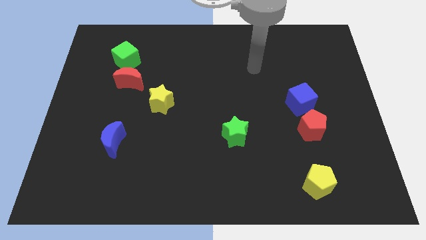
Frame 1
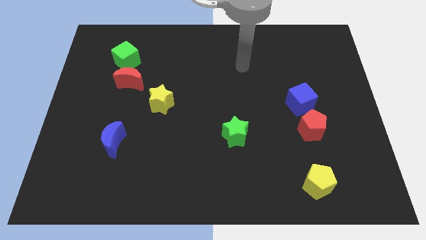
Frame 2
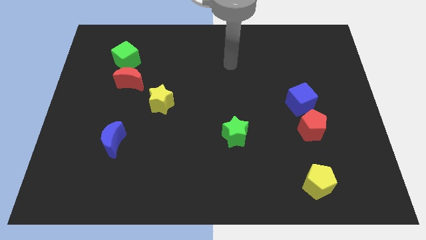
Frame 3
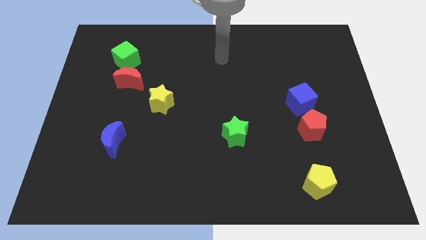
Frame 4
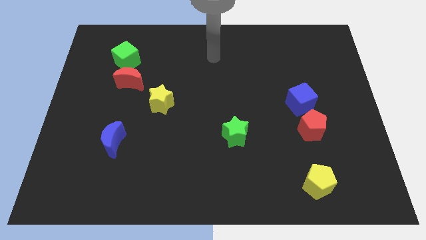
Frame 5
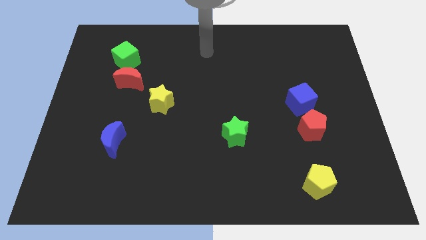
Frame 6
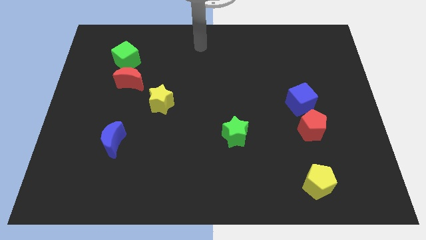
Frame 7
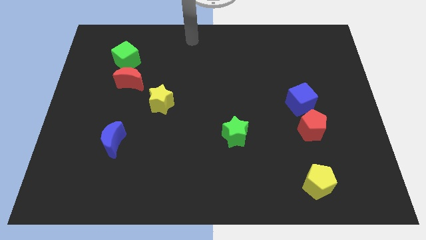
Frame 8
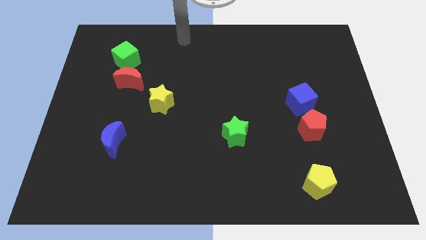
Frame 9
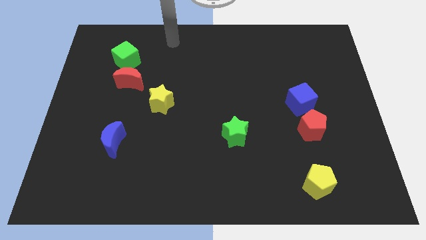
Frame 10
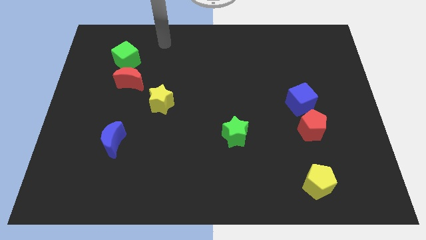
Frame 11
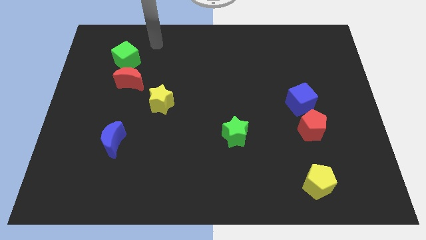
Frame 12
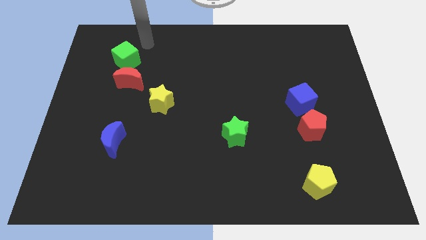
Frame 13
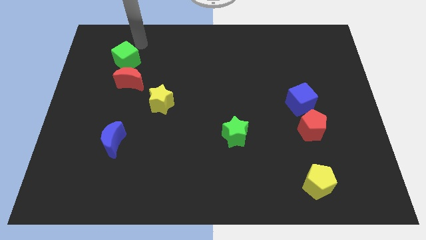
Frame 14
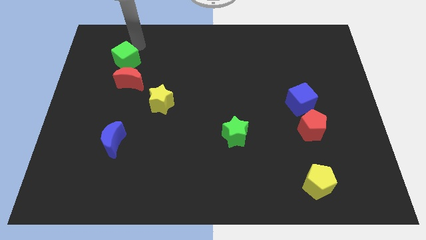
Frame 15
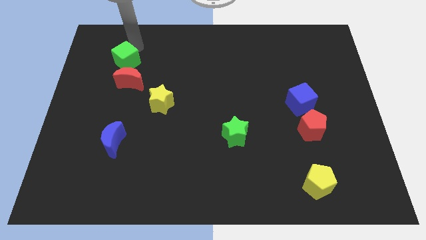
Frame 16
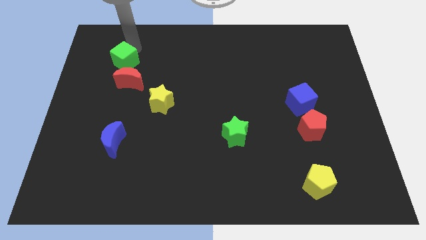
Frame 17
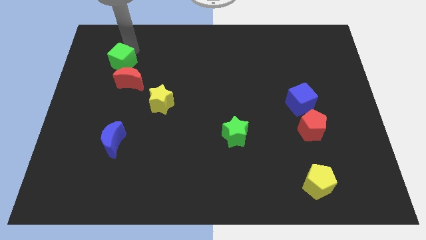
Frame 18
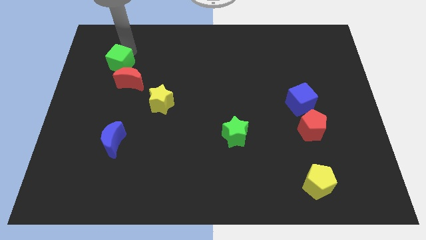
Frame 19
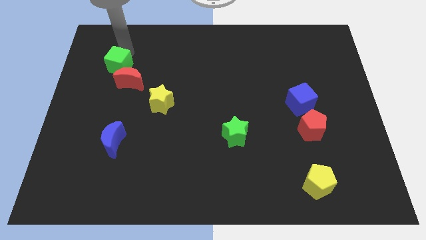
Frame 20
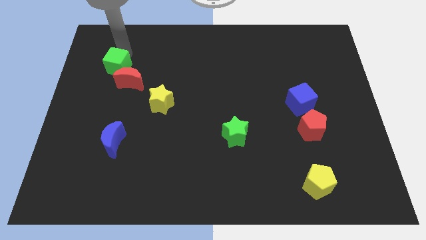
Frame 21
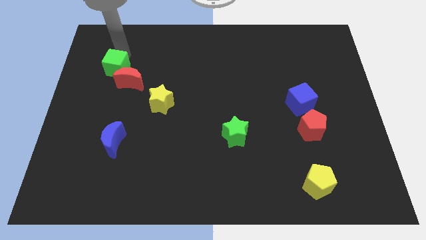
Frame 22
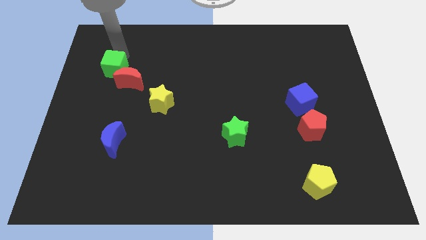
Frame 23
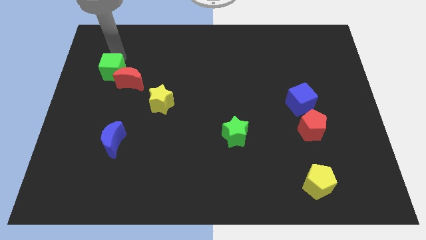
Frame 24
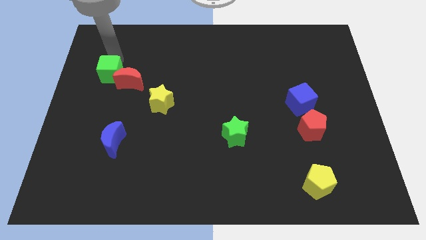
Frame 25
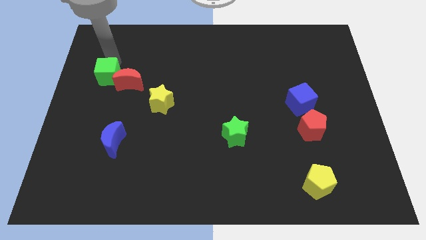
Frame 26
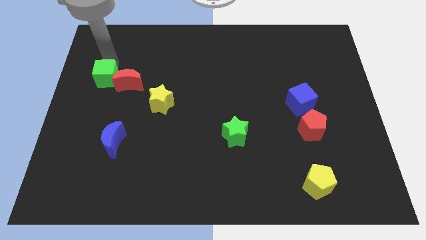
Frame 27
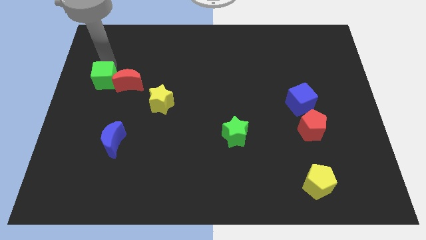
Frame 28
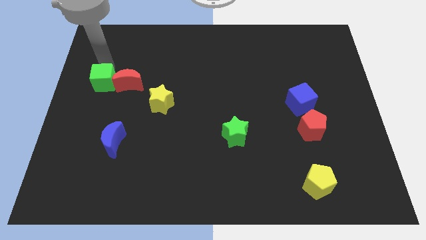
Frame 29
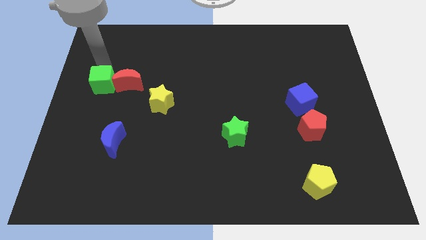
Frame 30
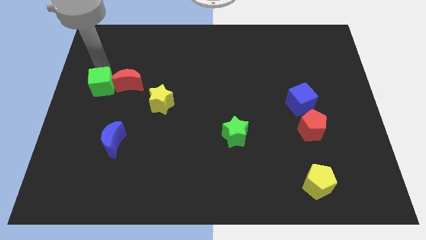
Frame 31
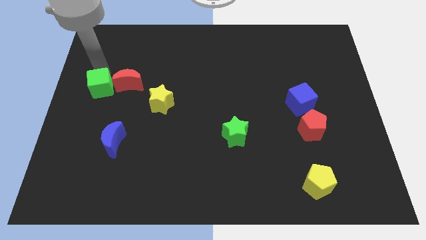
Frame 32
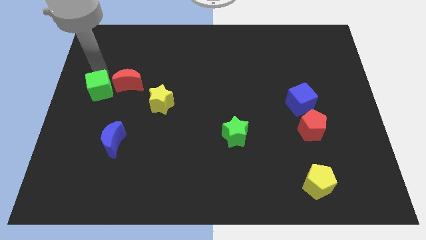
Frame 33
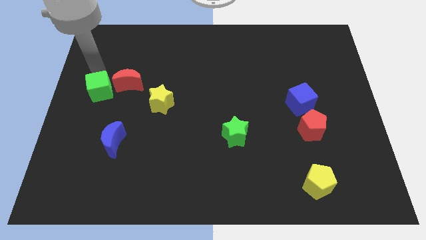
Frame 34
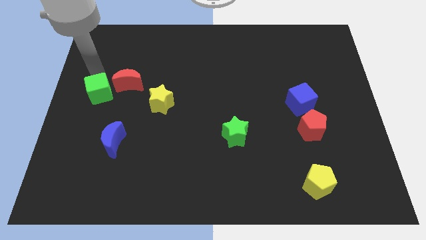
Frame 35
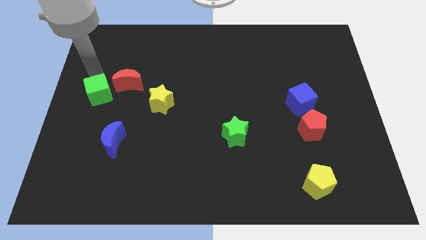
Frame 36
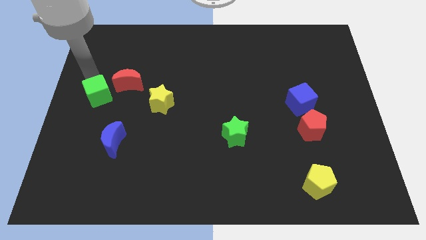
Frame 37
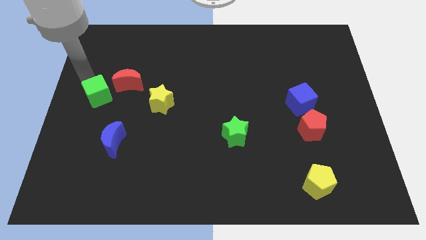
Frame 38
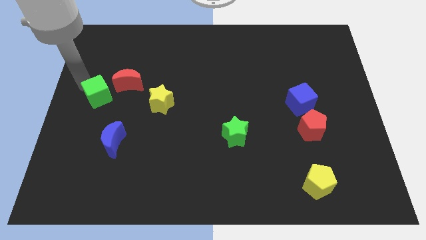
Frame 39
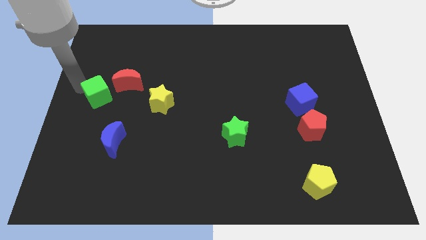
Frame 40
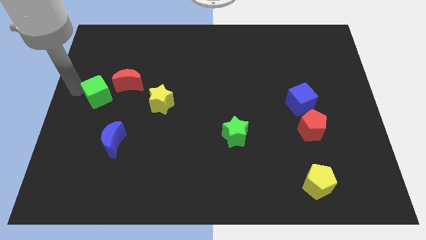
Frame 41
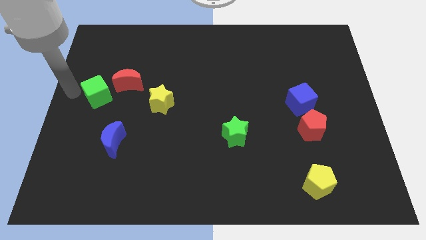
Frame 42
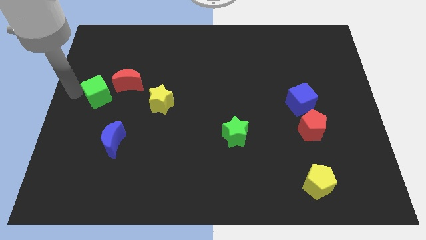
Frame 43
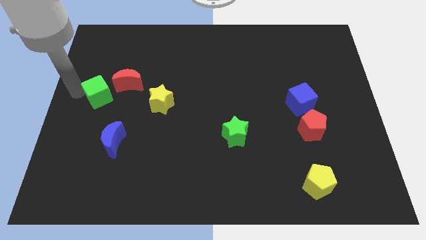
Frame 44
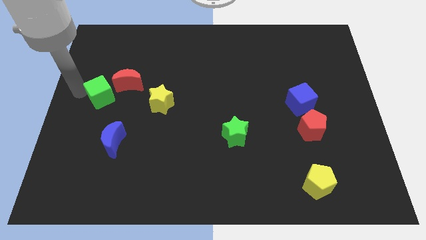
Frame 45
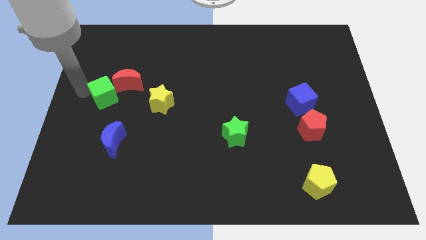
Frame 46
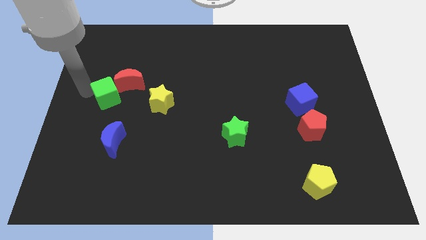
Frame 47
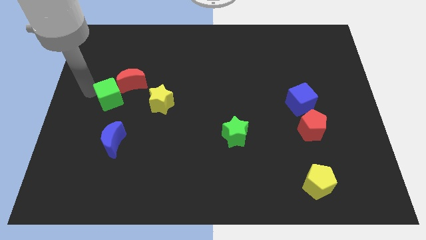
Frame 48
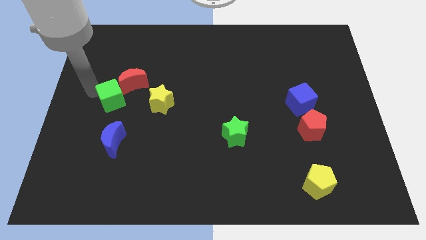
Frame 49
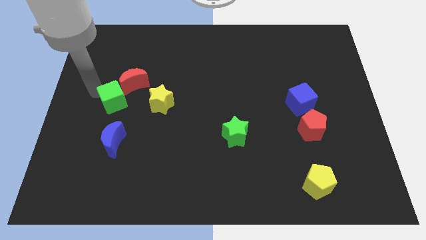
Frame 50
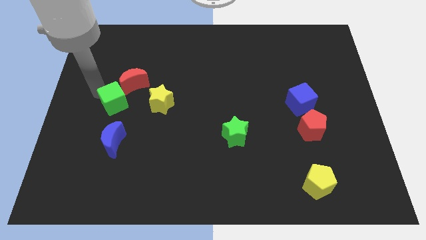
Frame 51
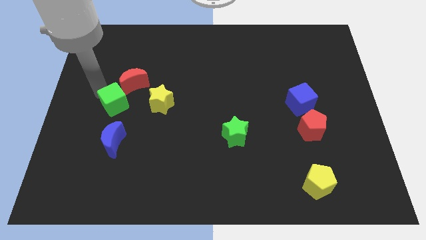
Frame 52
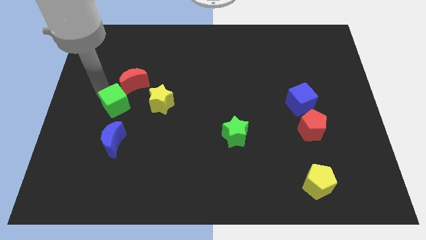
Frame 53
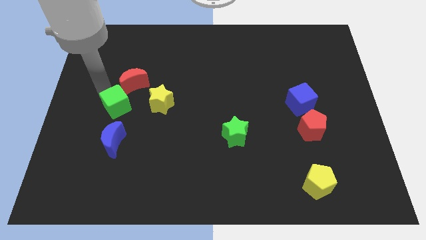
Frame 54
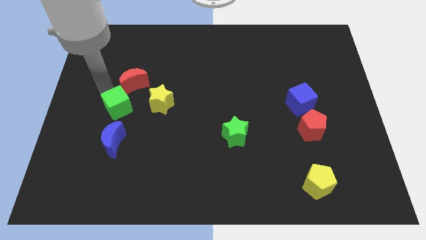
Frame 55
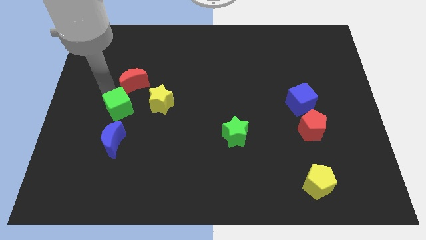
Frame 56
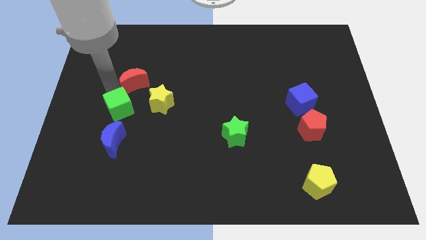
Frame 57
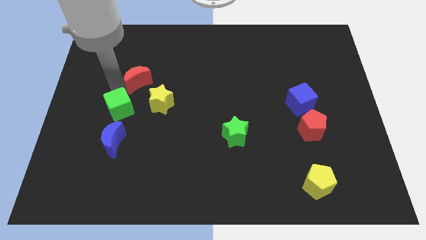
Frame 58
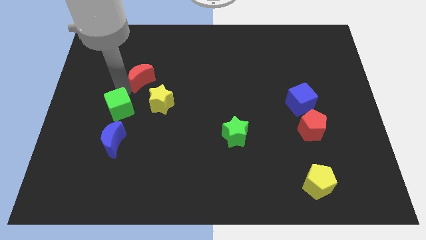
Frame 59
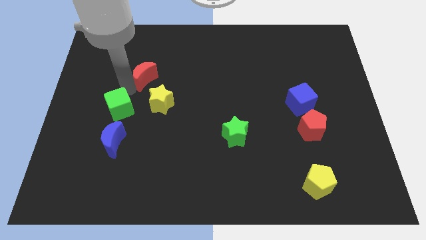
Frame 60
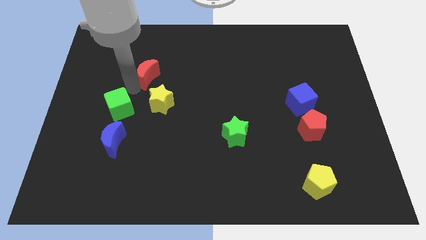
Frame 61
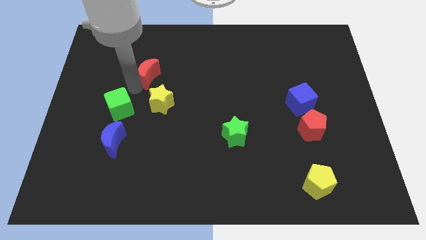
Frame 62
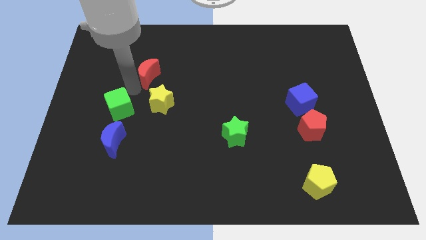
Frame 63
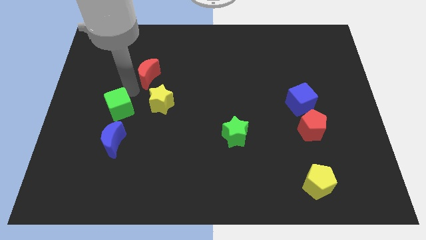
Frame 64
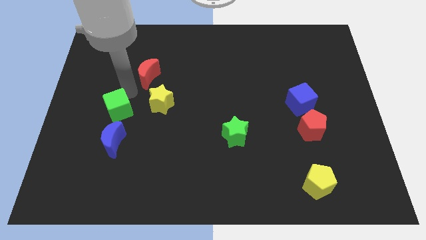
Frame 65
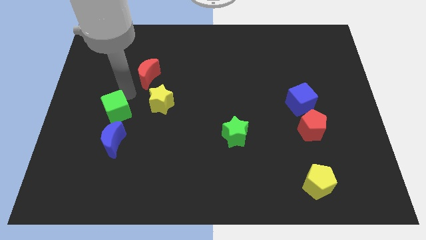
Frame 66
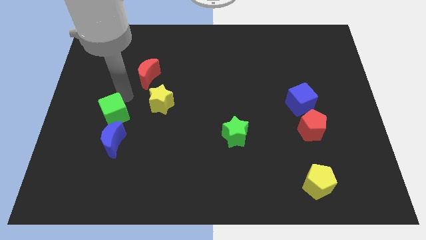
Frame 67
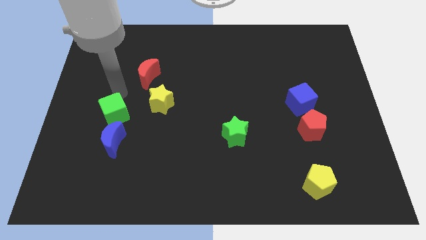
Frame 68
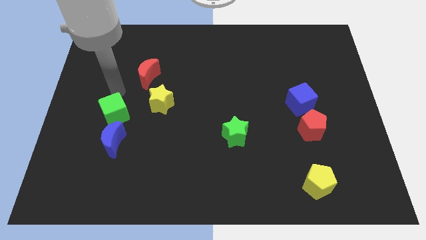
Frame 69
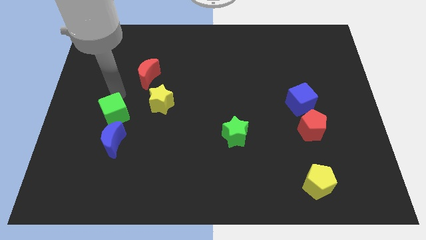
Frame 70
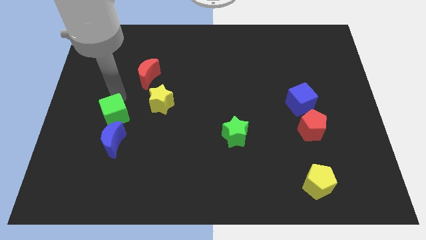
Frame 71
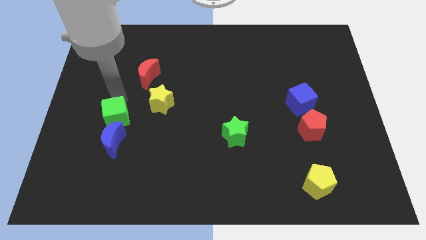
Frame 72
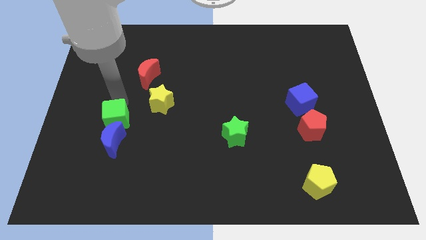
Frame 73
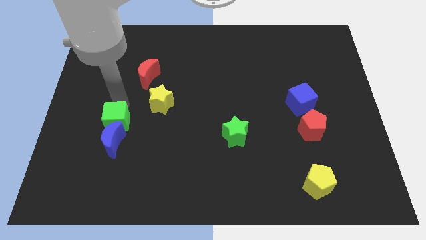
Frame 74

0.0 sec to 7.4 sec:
move the green cube to the blue moon
